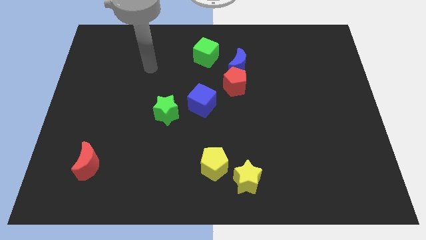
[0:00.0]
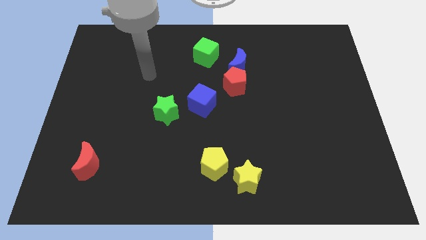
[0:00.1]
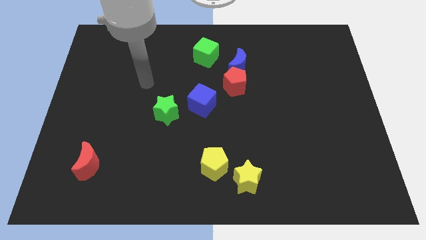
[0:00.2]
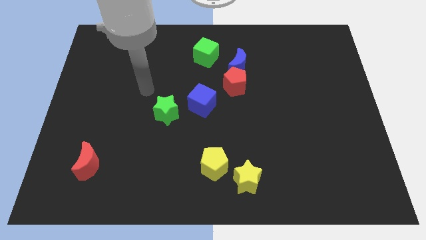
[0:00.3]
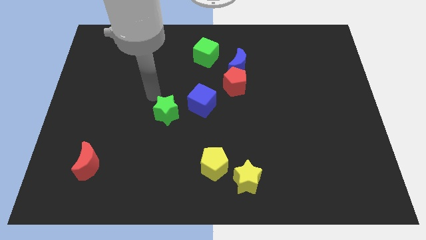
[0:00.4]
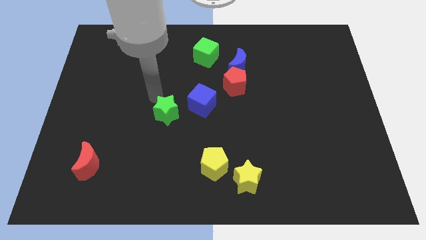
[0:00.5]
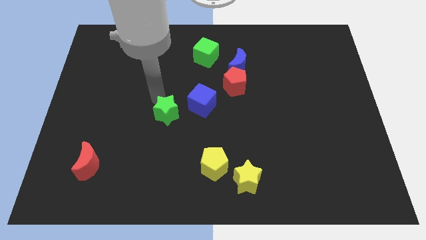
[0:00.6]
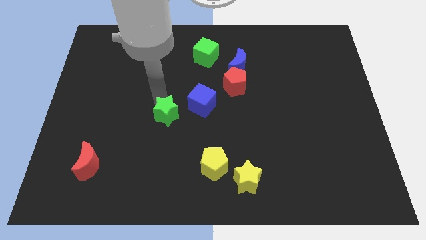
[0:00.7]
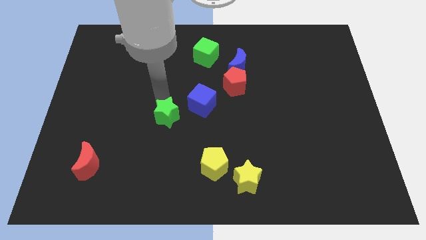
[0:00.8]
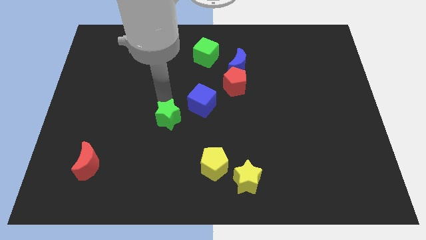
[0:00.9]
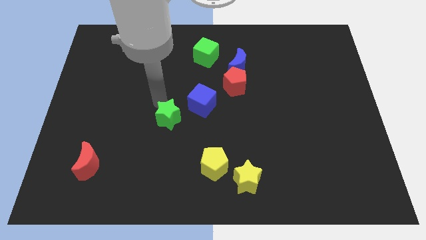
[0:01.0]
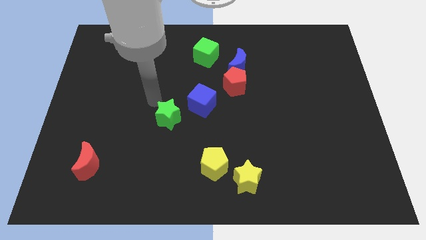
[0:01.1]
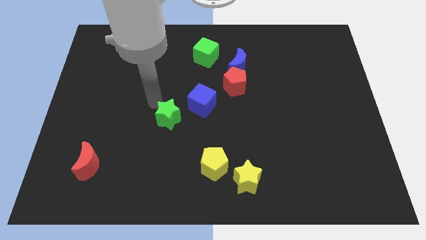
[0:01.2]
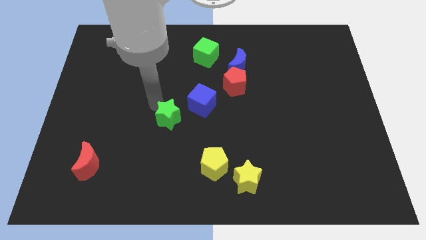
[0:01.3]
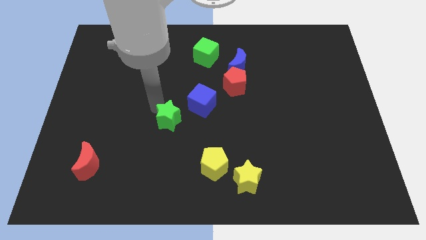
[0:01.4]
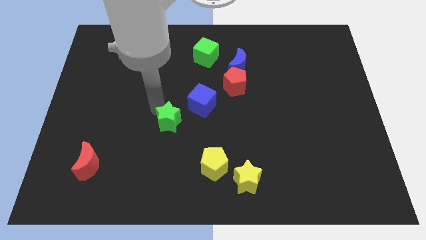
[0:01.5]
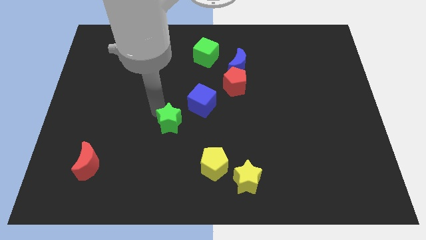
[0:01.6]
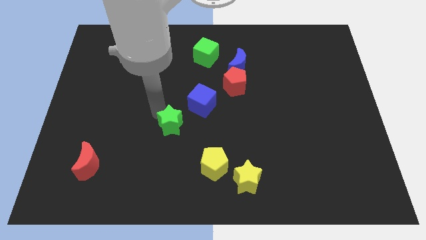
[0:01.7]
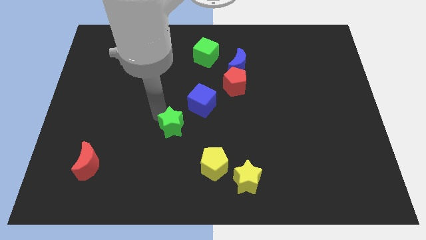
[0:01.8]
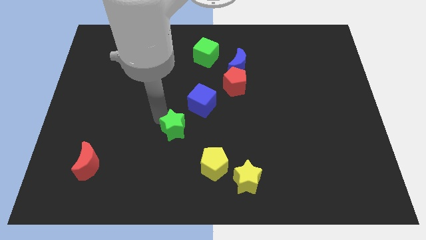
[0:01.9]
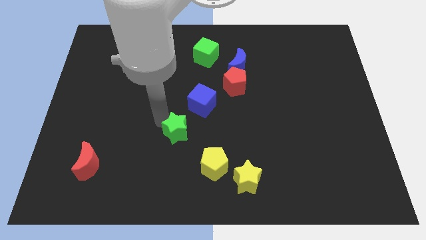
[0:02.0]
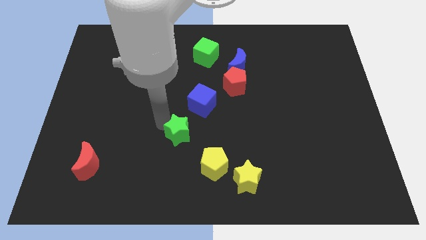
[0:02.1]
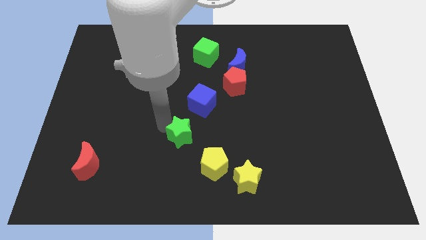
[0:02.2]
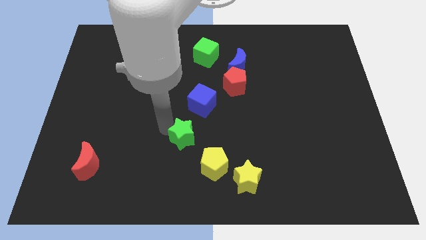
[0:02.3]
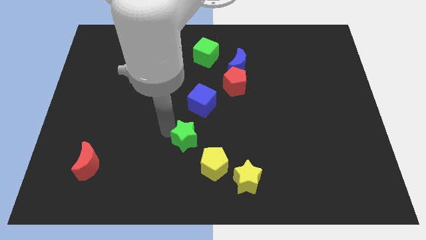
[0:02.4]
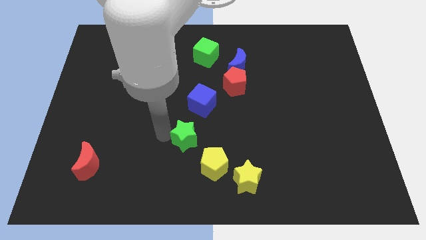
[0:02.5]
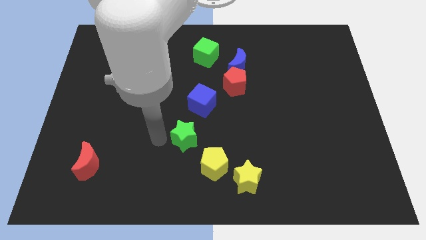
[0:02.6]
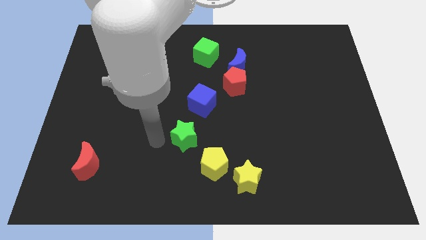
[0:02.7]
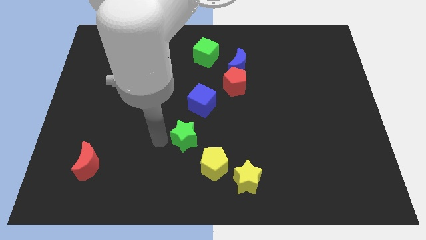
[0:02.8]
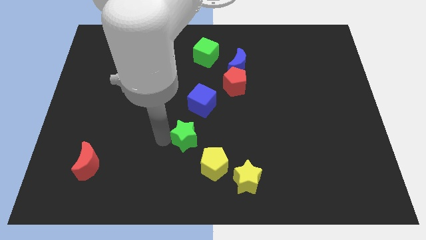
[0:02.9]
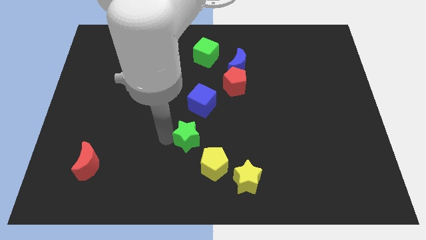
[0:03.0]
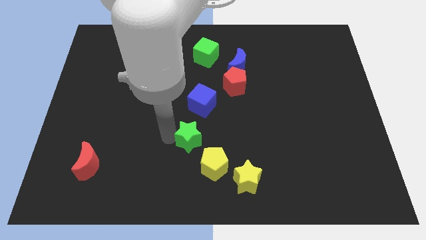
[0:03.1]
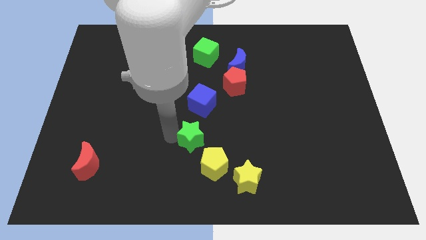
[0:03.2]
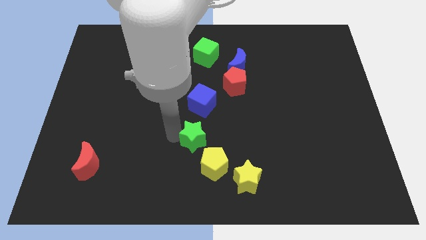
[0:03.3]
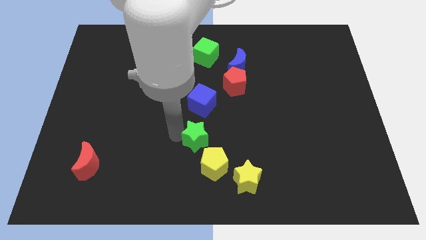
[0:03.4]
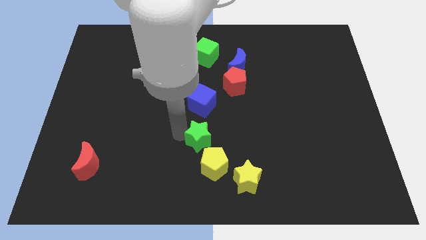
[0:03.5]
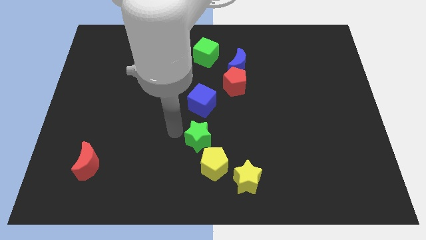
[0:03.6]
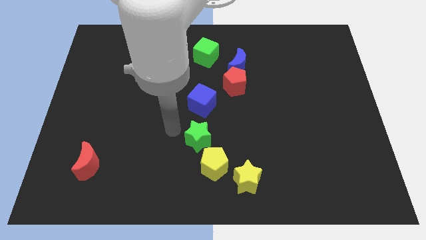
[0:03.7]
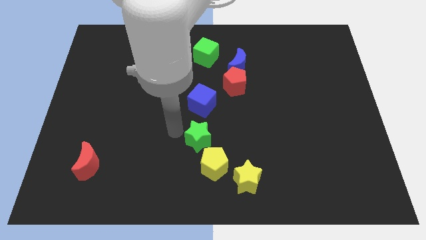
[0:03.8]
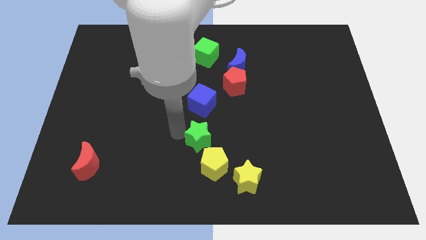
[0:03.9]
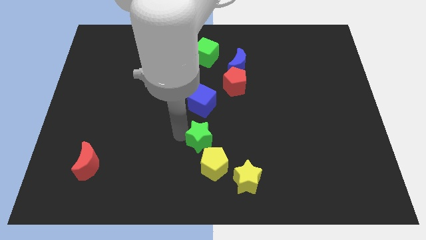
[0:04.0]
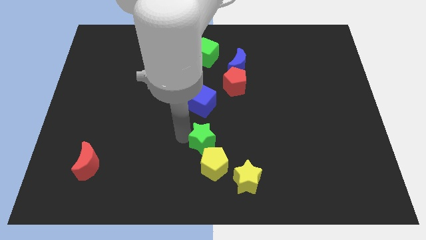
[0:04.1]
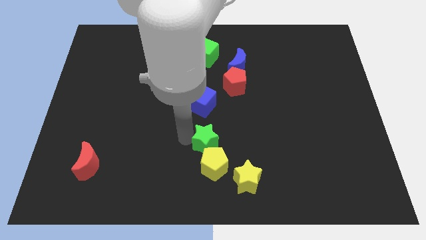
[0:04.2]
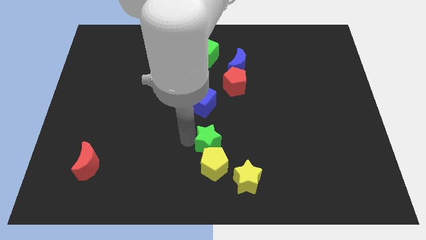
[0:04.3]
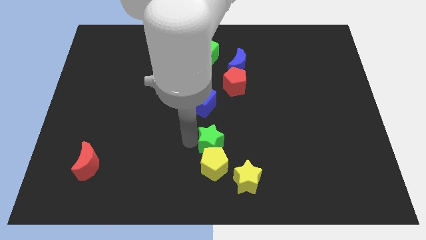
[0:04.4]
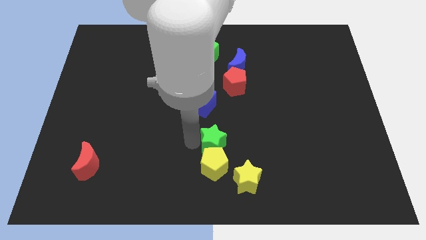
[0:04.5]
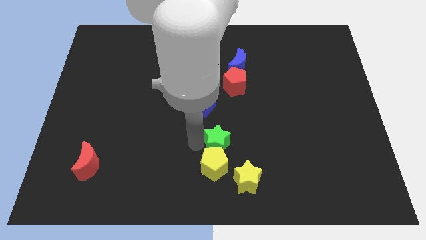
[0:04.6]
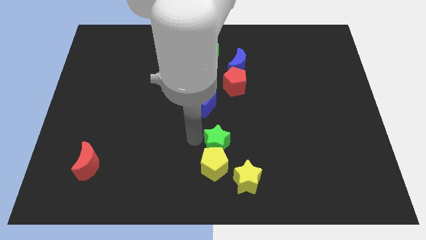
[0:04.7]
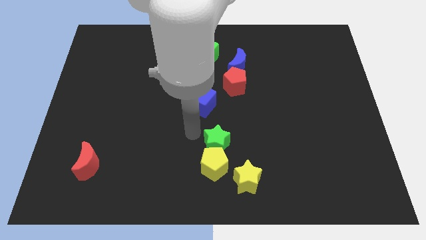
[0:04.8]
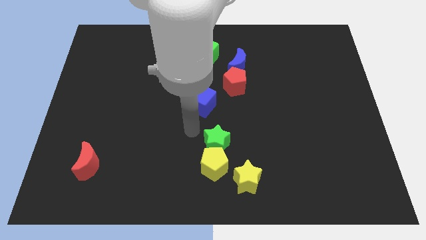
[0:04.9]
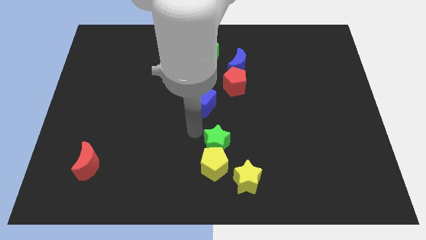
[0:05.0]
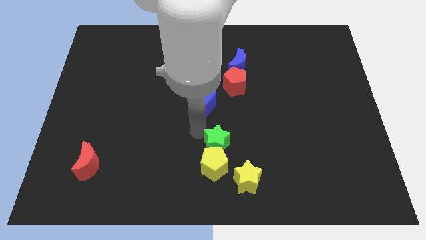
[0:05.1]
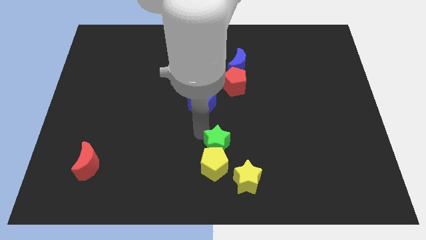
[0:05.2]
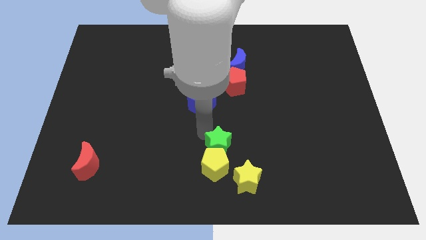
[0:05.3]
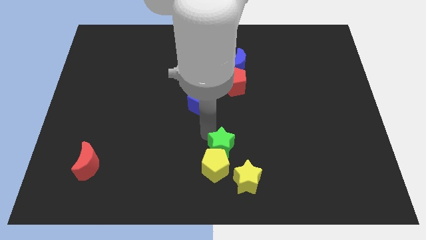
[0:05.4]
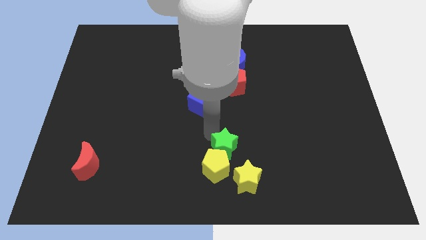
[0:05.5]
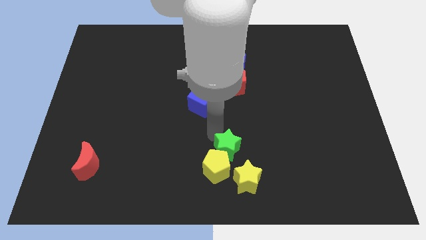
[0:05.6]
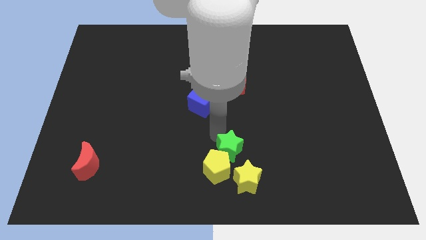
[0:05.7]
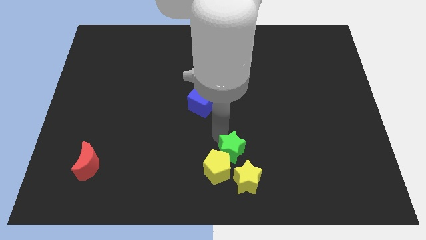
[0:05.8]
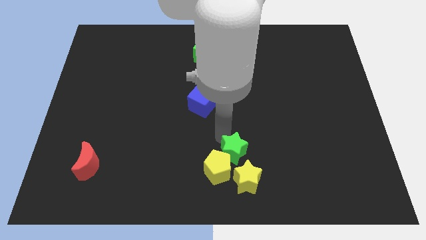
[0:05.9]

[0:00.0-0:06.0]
put the green star right of the yellow pentagon
